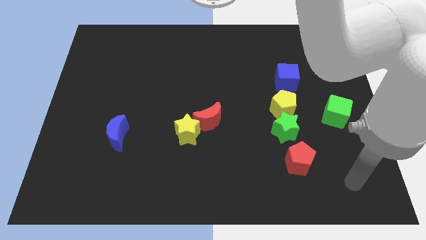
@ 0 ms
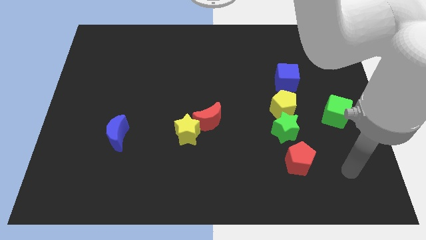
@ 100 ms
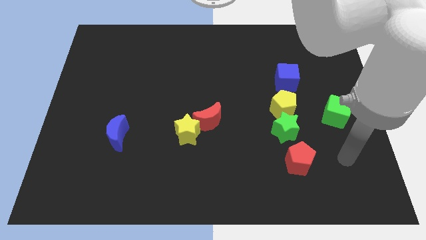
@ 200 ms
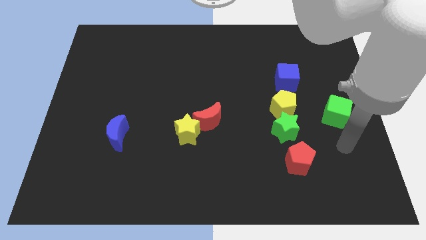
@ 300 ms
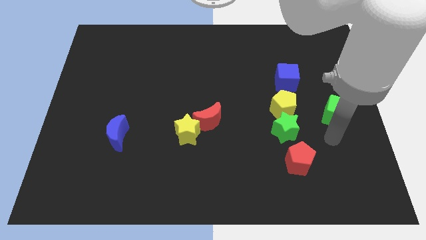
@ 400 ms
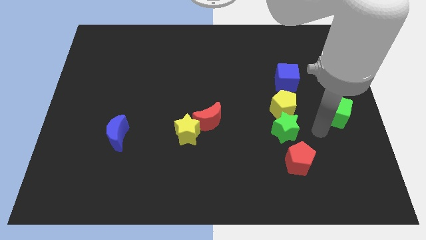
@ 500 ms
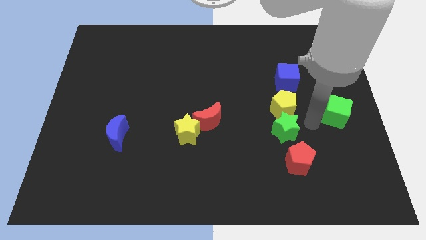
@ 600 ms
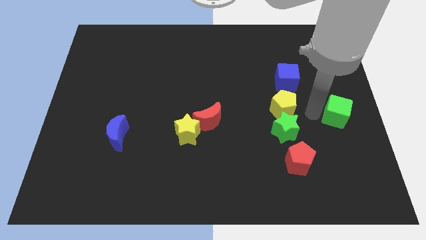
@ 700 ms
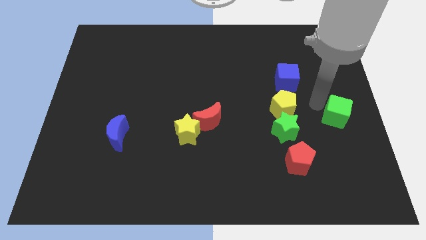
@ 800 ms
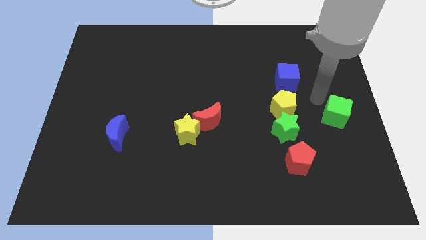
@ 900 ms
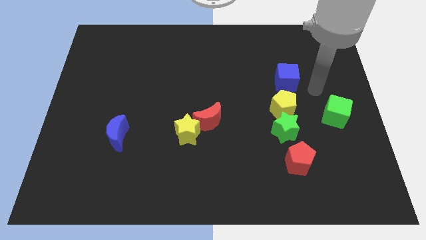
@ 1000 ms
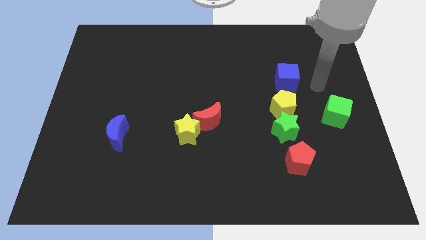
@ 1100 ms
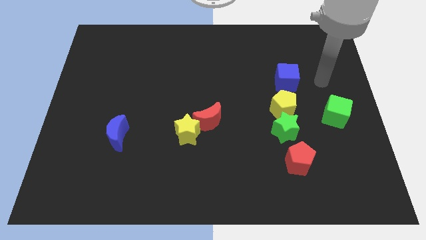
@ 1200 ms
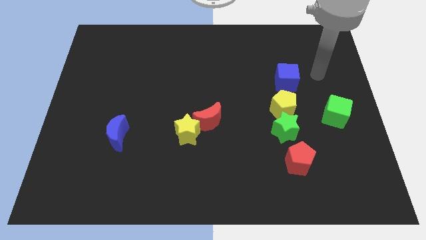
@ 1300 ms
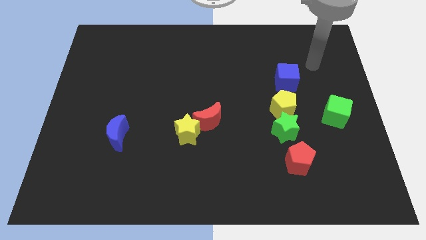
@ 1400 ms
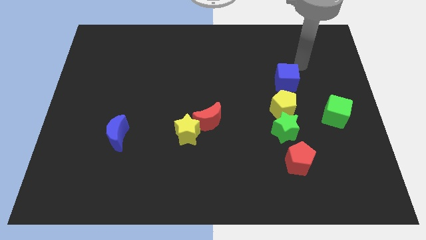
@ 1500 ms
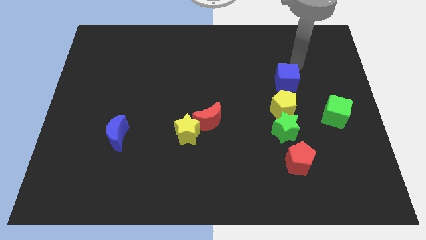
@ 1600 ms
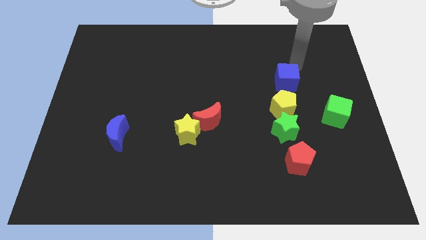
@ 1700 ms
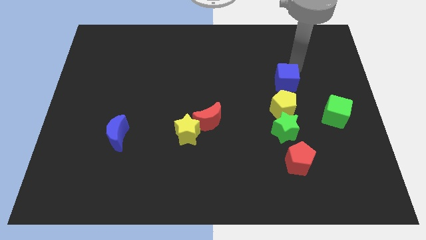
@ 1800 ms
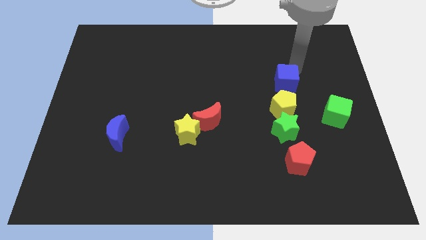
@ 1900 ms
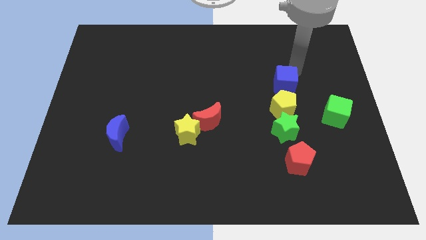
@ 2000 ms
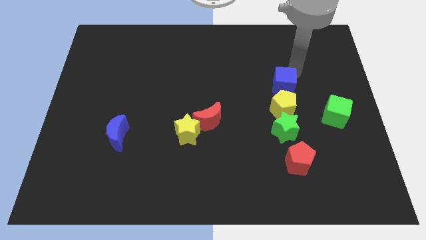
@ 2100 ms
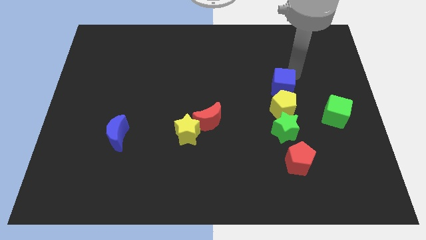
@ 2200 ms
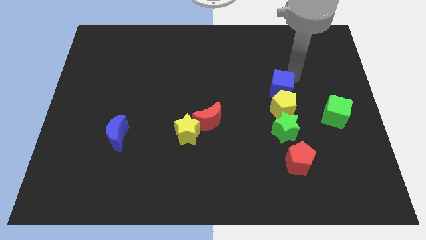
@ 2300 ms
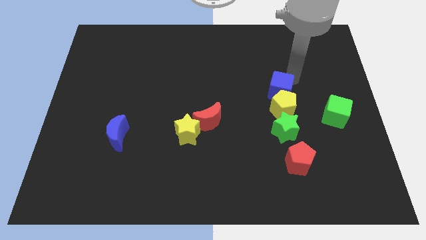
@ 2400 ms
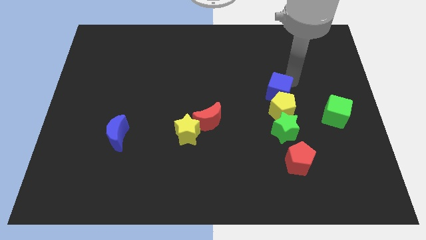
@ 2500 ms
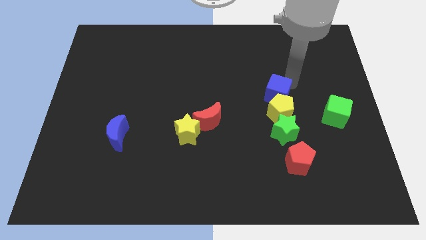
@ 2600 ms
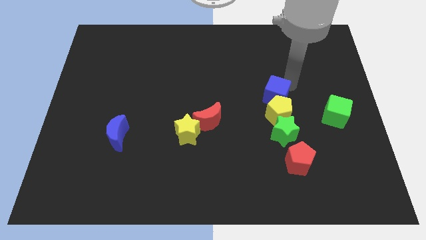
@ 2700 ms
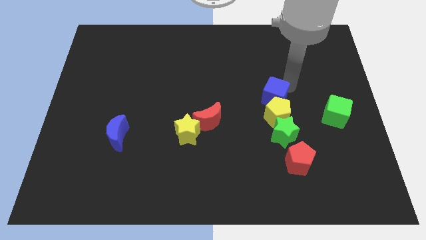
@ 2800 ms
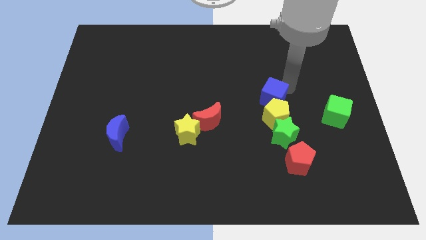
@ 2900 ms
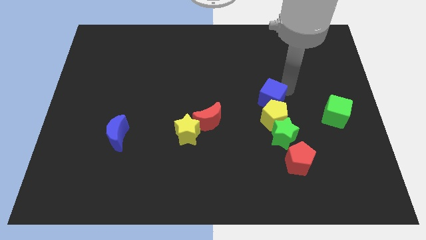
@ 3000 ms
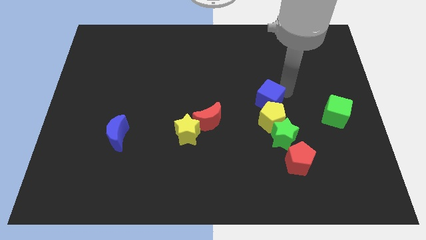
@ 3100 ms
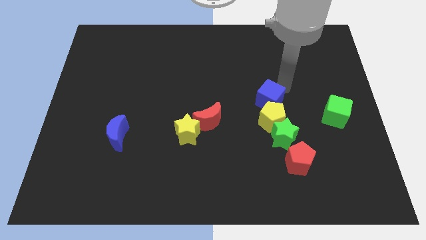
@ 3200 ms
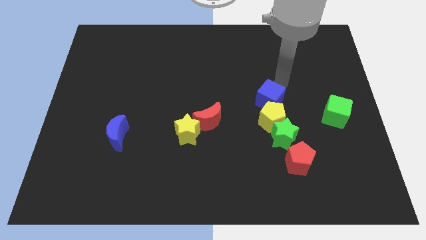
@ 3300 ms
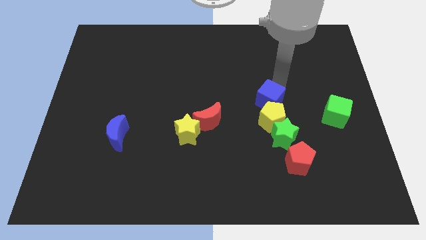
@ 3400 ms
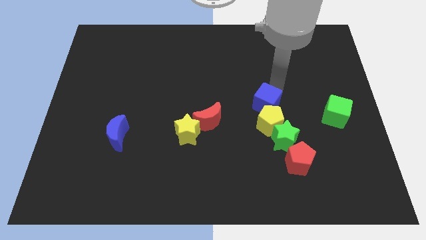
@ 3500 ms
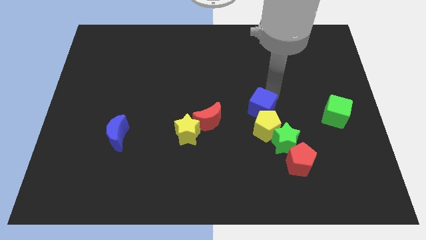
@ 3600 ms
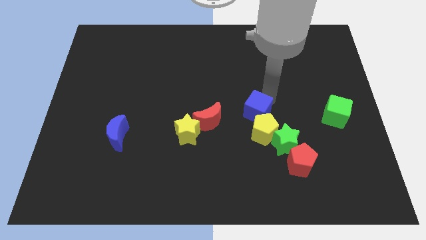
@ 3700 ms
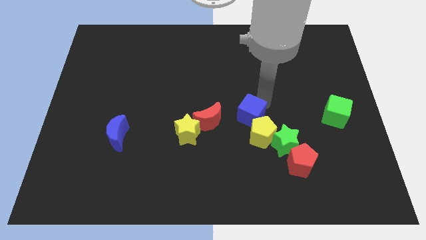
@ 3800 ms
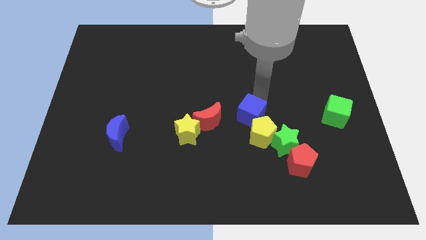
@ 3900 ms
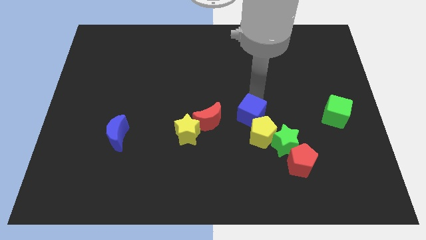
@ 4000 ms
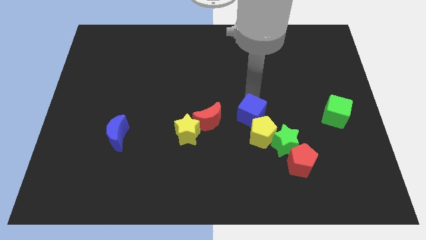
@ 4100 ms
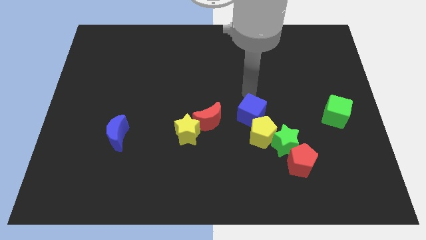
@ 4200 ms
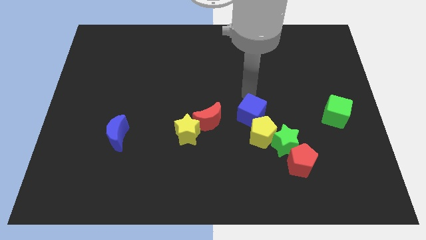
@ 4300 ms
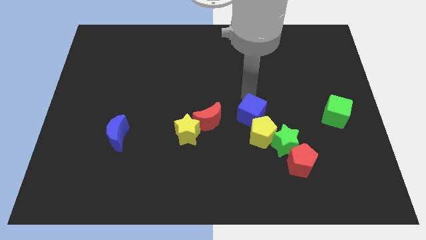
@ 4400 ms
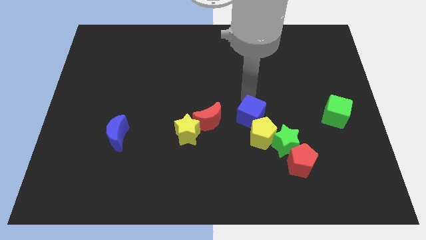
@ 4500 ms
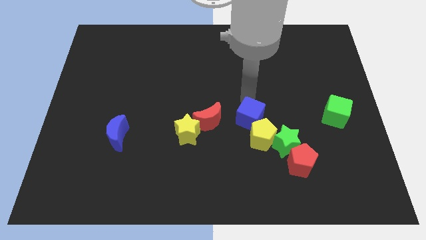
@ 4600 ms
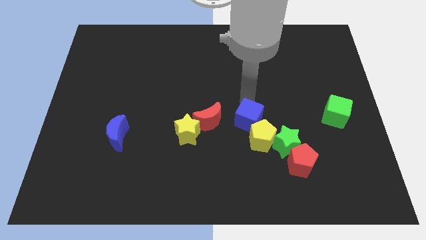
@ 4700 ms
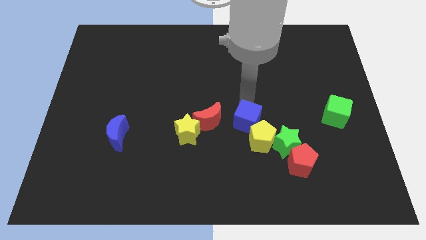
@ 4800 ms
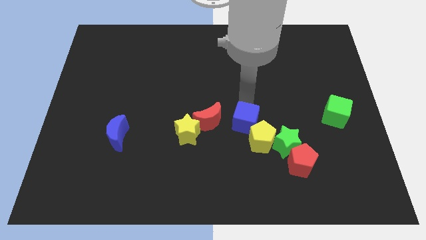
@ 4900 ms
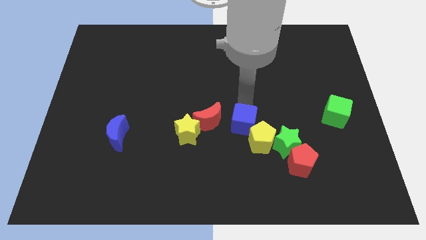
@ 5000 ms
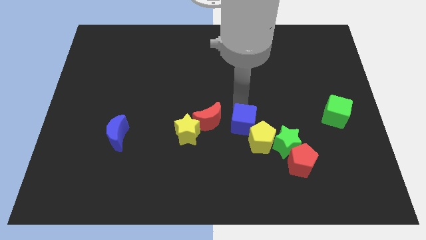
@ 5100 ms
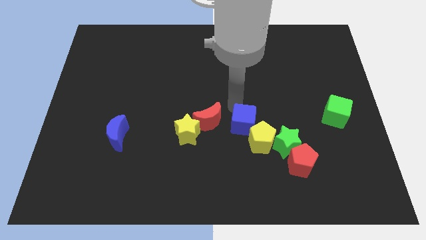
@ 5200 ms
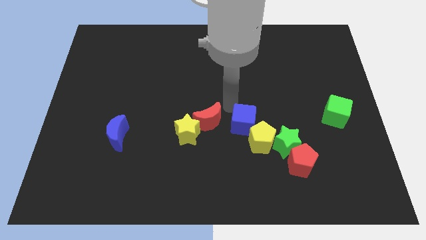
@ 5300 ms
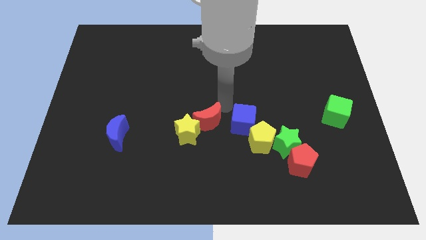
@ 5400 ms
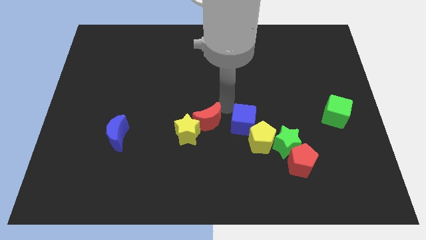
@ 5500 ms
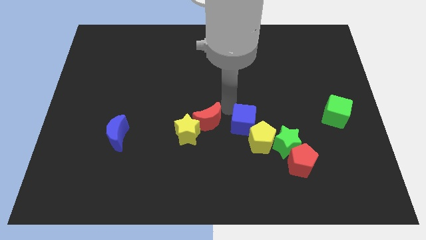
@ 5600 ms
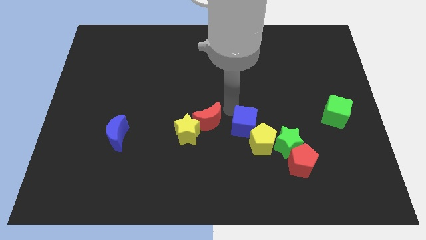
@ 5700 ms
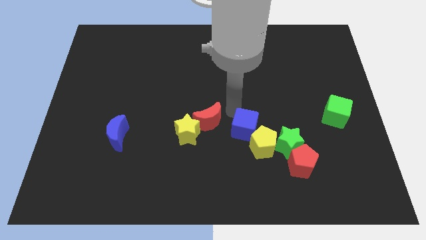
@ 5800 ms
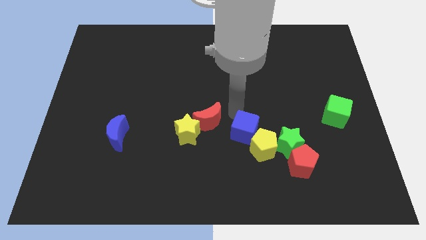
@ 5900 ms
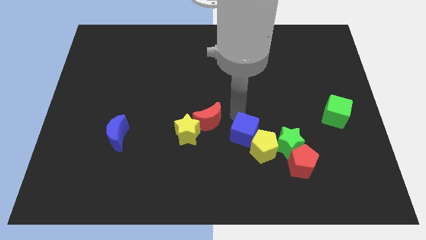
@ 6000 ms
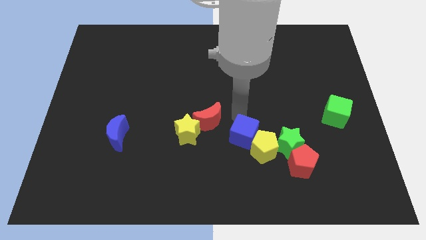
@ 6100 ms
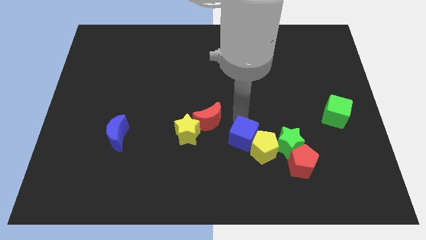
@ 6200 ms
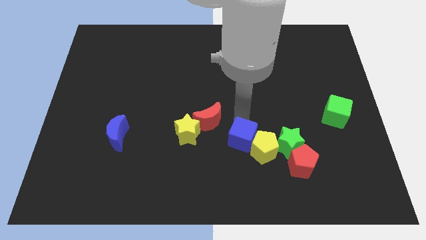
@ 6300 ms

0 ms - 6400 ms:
move the blue cube diagonally down and left

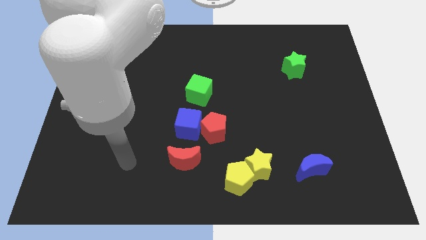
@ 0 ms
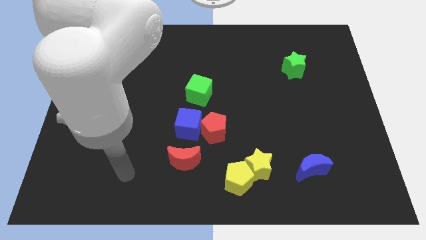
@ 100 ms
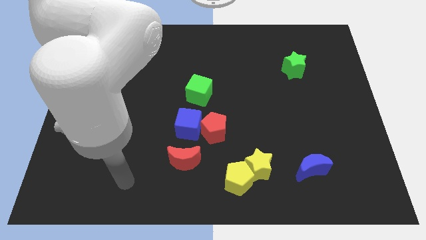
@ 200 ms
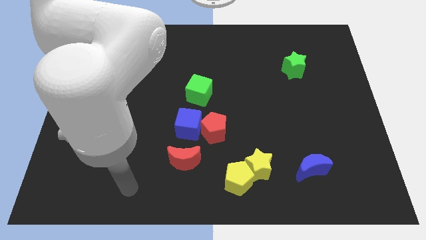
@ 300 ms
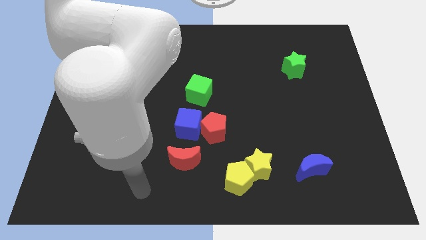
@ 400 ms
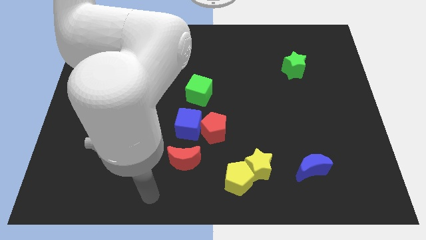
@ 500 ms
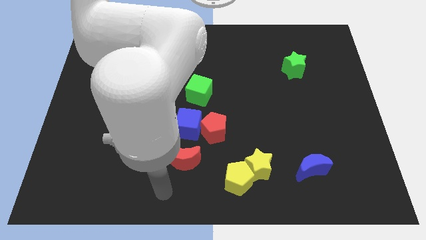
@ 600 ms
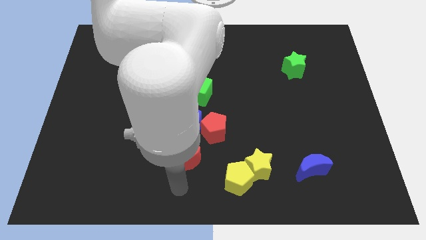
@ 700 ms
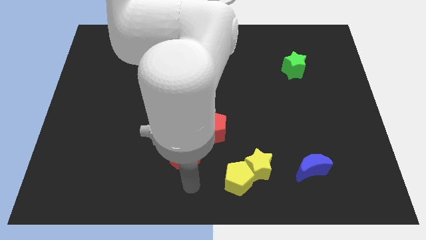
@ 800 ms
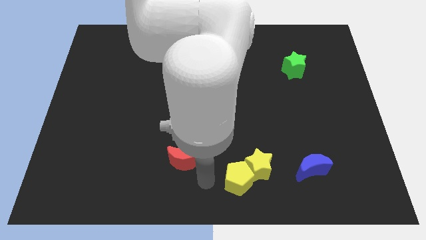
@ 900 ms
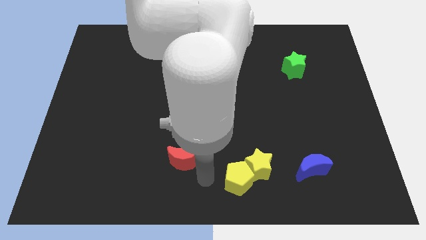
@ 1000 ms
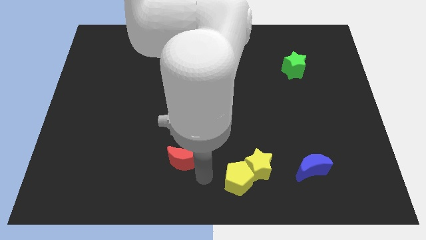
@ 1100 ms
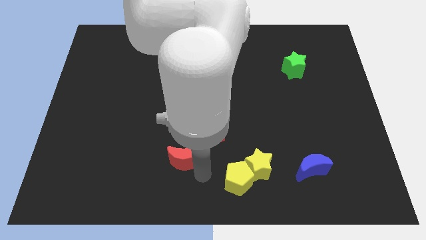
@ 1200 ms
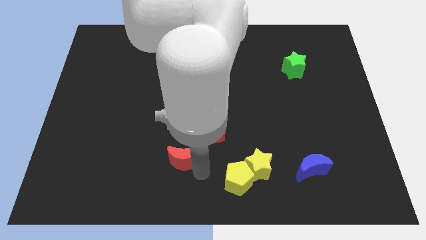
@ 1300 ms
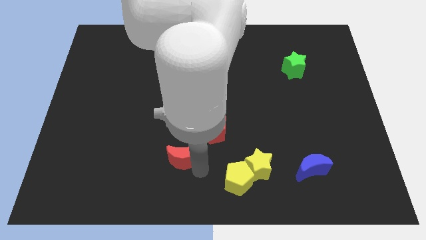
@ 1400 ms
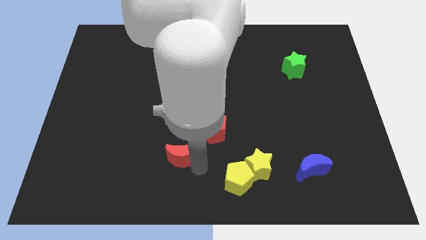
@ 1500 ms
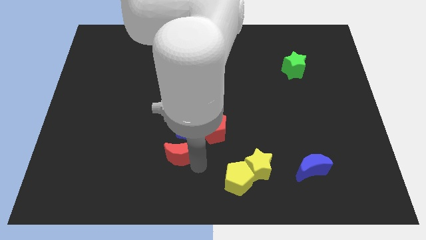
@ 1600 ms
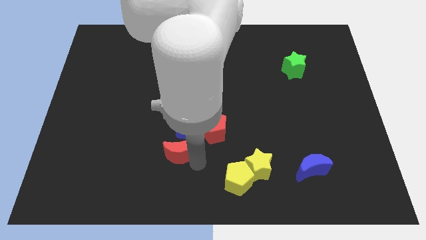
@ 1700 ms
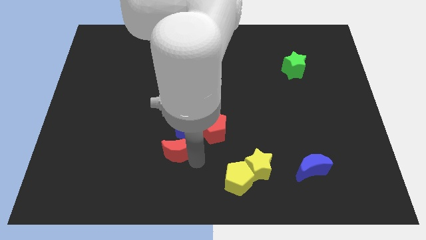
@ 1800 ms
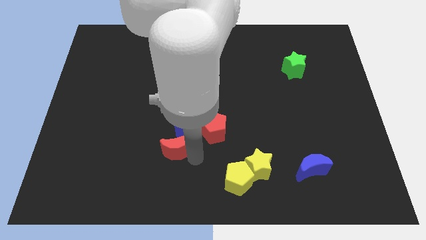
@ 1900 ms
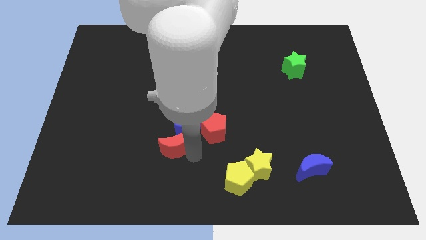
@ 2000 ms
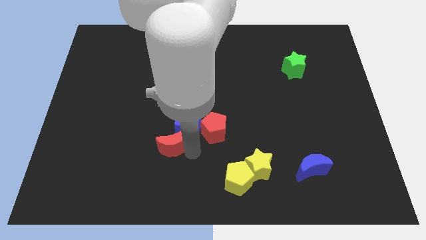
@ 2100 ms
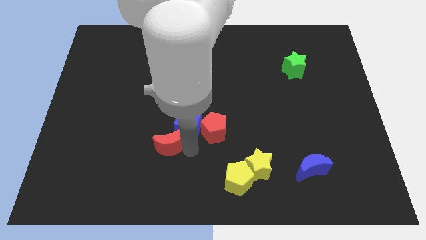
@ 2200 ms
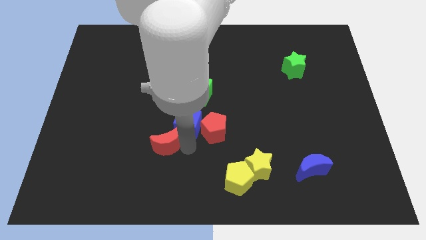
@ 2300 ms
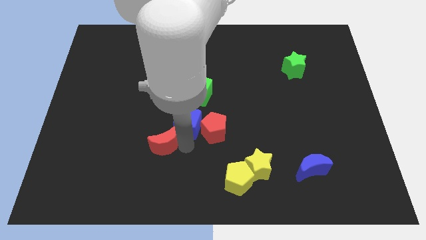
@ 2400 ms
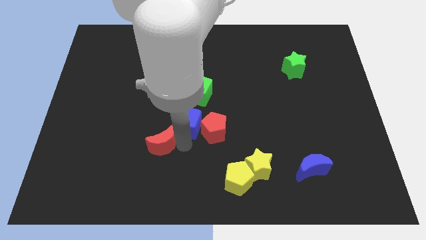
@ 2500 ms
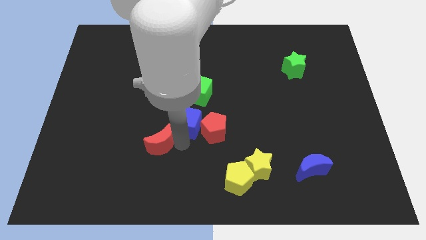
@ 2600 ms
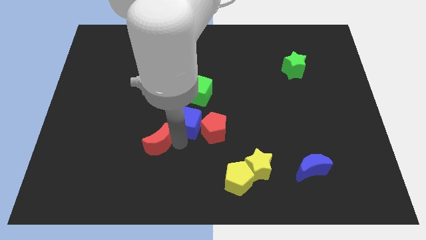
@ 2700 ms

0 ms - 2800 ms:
slightly slide the red moon upwards and then left
